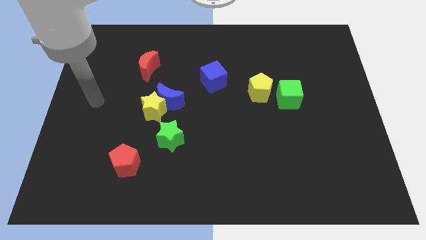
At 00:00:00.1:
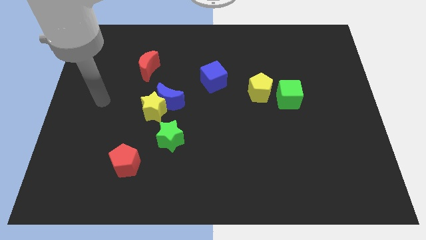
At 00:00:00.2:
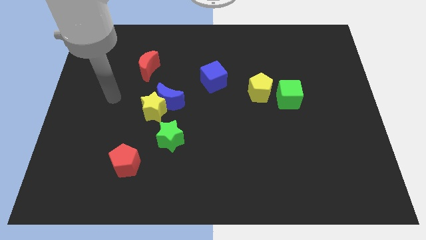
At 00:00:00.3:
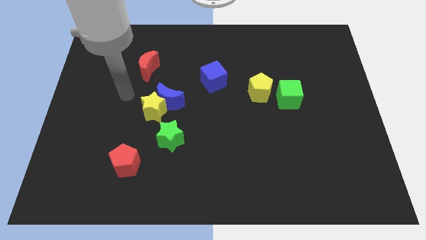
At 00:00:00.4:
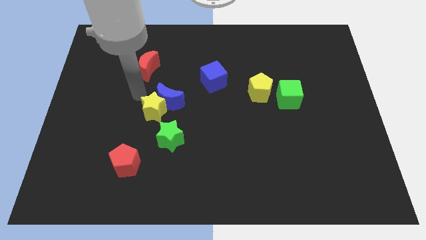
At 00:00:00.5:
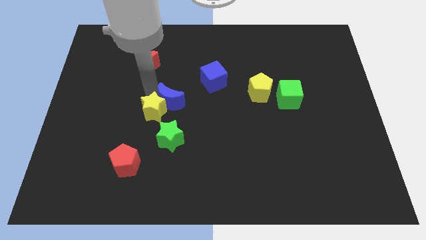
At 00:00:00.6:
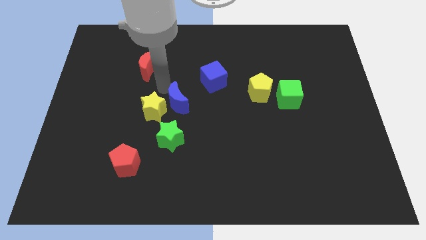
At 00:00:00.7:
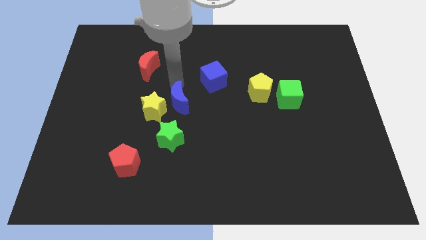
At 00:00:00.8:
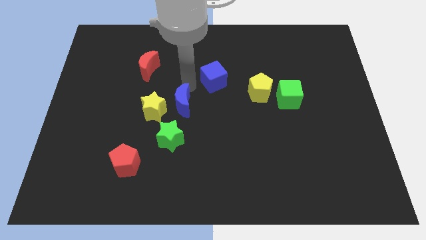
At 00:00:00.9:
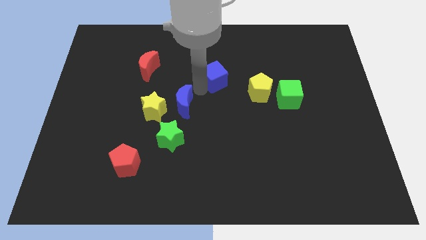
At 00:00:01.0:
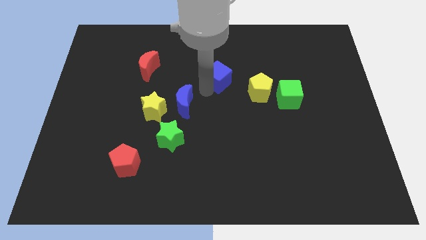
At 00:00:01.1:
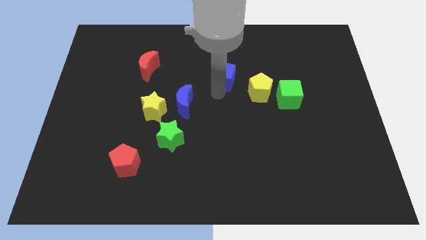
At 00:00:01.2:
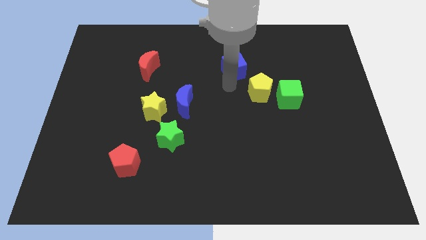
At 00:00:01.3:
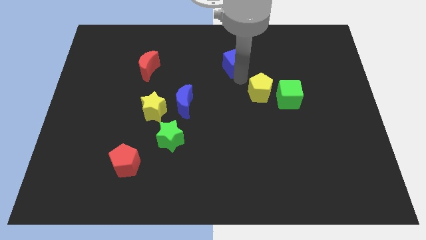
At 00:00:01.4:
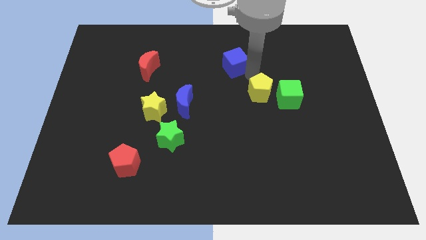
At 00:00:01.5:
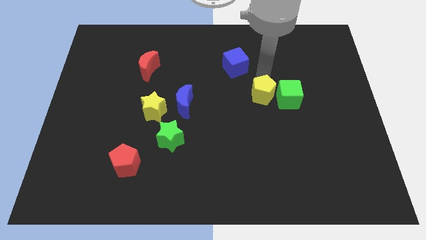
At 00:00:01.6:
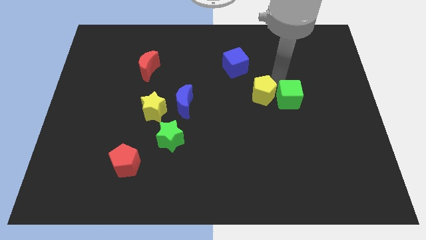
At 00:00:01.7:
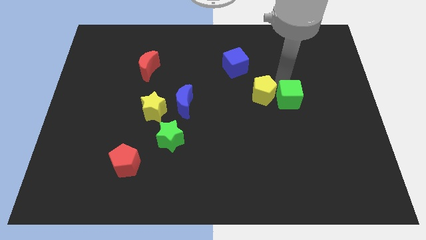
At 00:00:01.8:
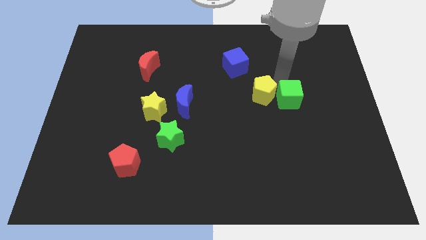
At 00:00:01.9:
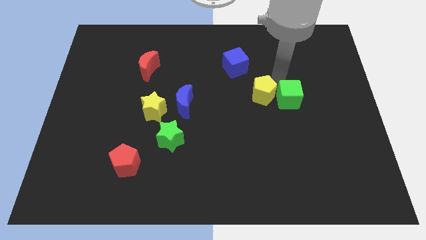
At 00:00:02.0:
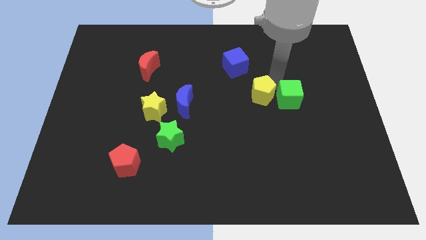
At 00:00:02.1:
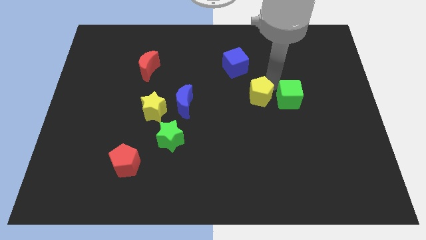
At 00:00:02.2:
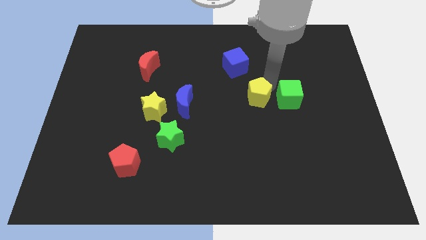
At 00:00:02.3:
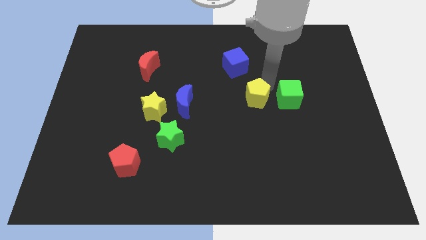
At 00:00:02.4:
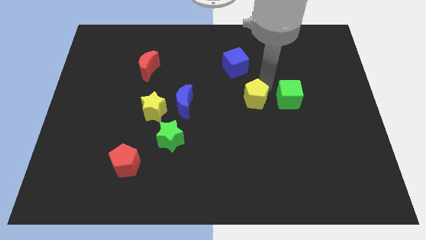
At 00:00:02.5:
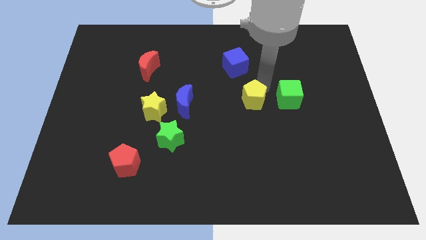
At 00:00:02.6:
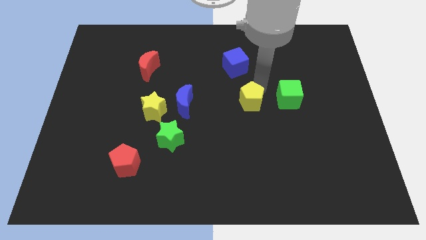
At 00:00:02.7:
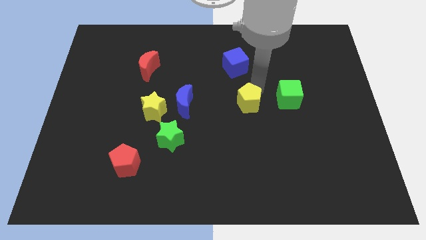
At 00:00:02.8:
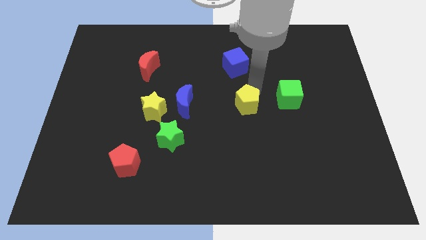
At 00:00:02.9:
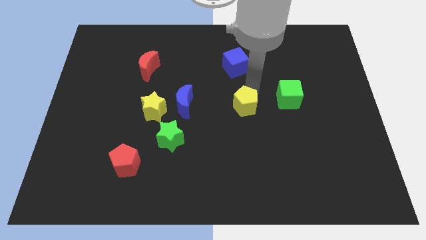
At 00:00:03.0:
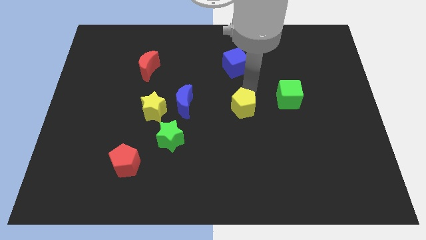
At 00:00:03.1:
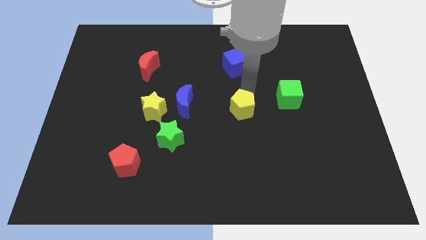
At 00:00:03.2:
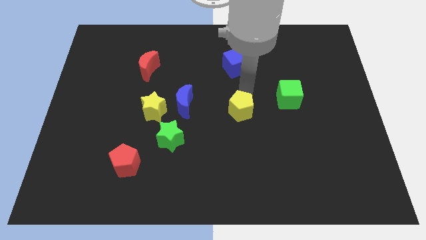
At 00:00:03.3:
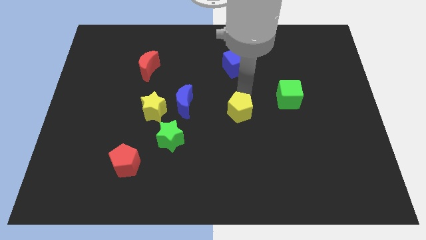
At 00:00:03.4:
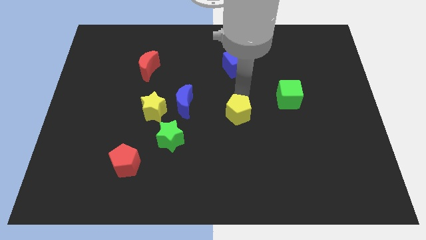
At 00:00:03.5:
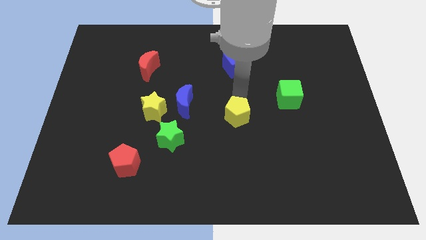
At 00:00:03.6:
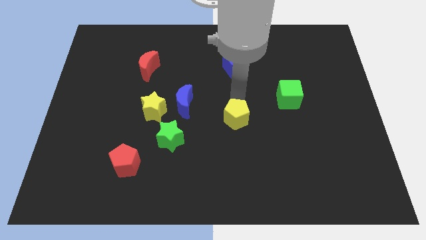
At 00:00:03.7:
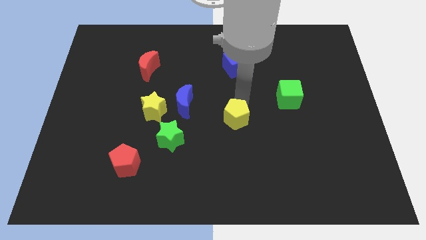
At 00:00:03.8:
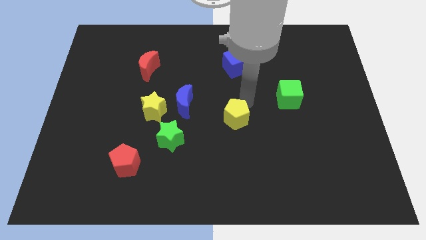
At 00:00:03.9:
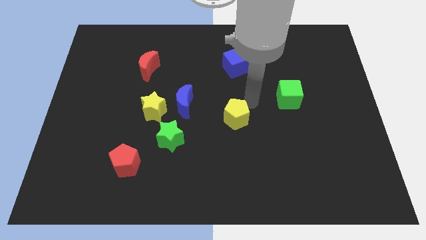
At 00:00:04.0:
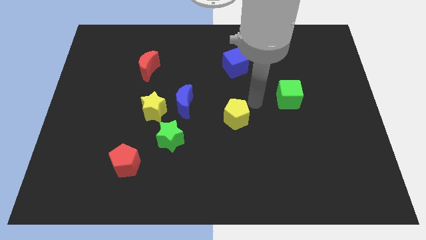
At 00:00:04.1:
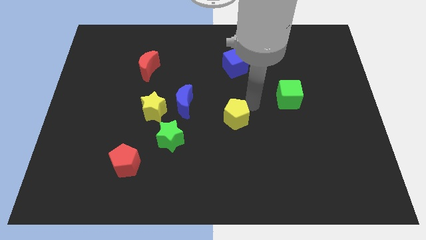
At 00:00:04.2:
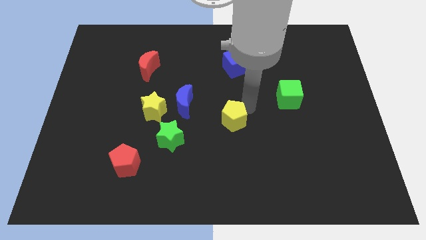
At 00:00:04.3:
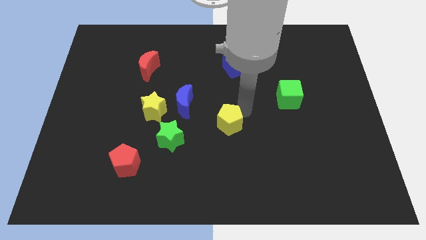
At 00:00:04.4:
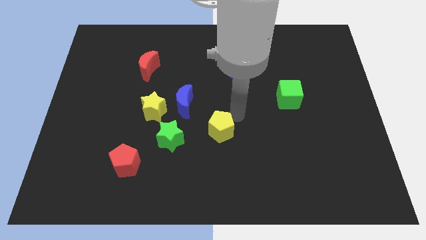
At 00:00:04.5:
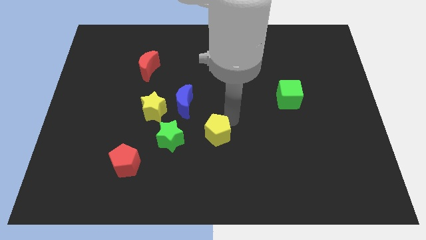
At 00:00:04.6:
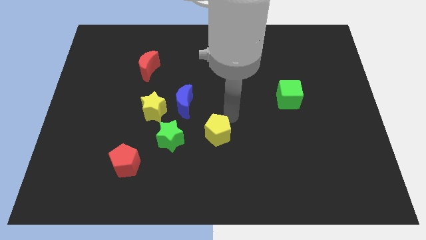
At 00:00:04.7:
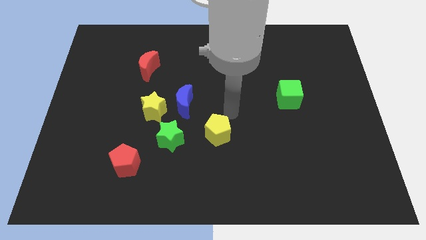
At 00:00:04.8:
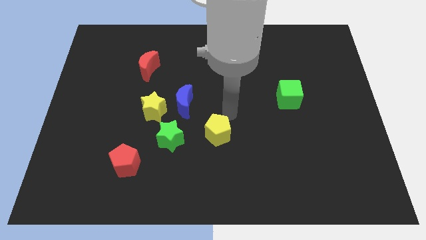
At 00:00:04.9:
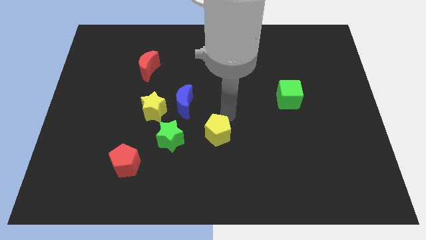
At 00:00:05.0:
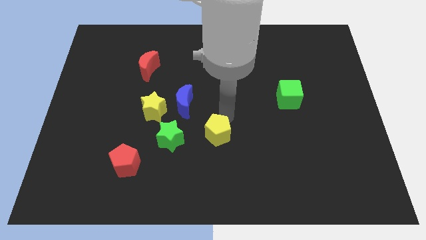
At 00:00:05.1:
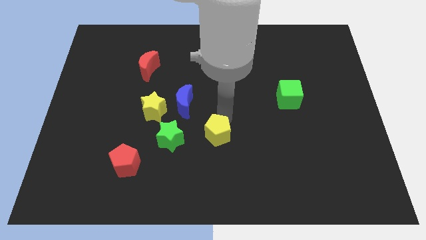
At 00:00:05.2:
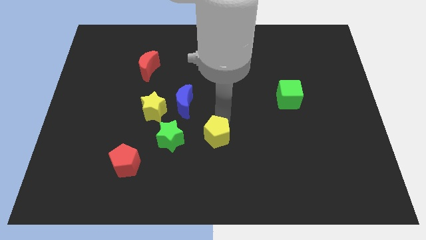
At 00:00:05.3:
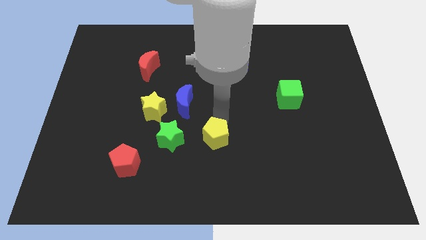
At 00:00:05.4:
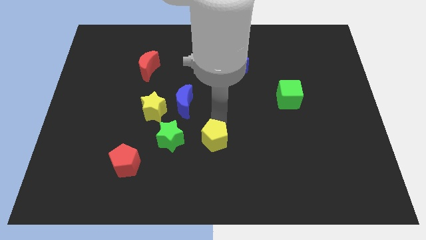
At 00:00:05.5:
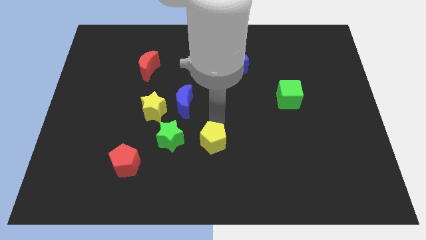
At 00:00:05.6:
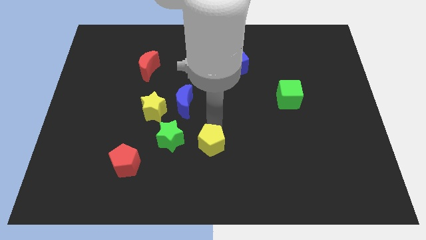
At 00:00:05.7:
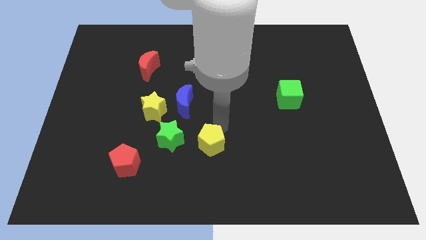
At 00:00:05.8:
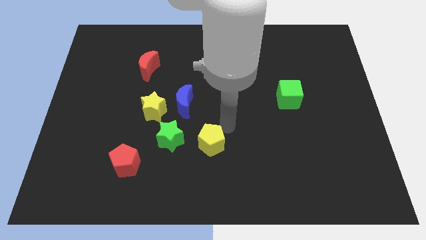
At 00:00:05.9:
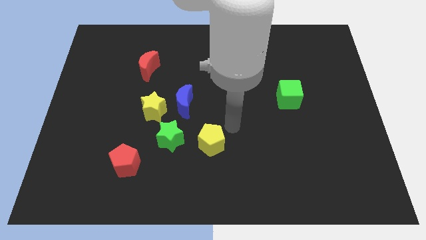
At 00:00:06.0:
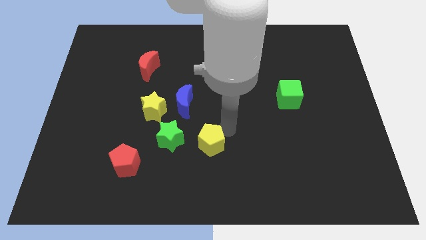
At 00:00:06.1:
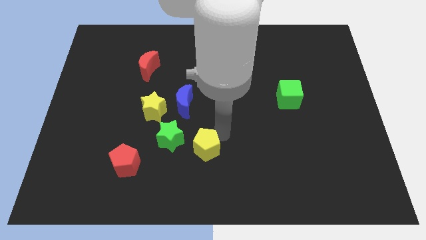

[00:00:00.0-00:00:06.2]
push the yellow pentagon diagonally down and to the left

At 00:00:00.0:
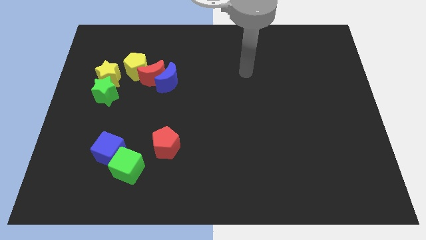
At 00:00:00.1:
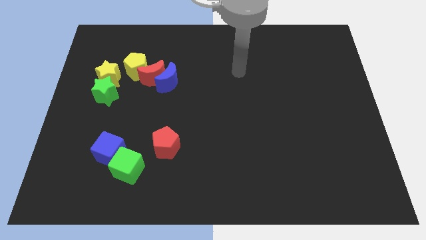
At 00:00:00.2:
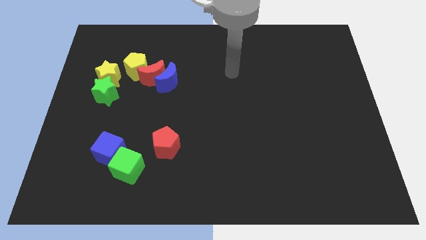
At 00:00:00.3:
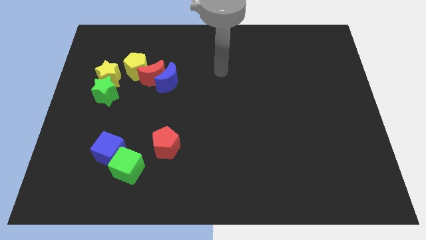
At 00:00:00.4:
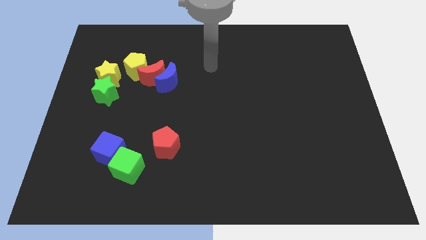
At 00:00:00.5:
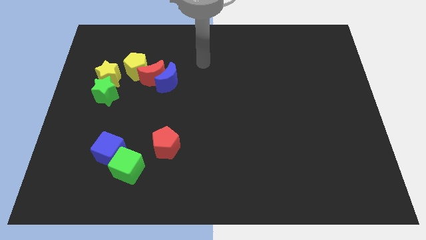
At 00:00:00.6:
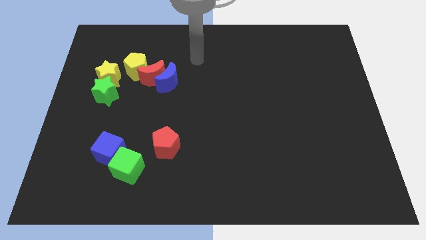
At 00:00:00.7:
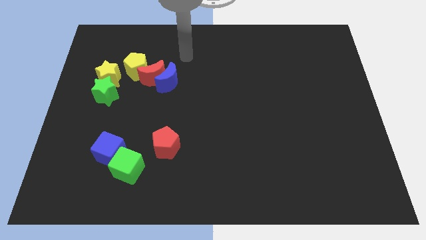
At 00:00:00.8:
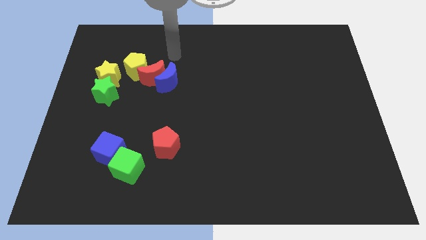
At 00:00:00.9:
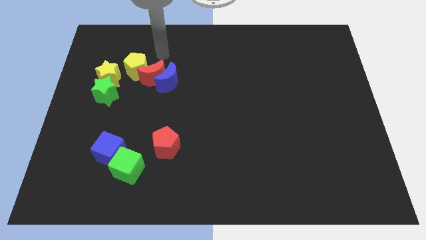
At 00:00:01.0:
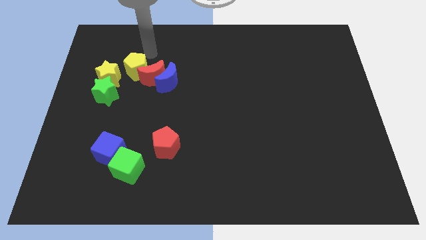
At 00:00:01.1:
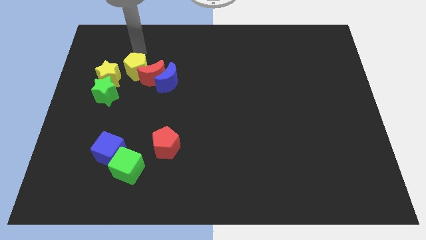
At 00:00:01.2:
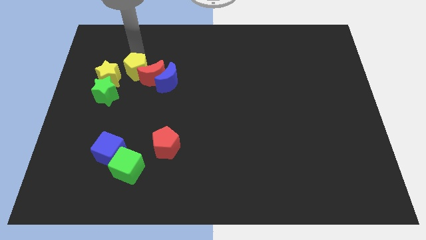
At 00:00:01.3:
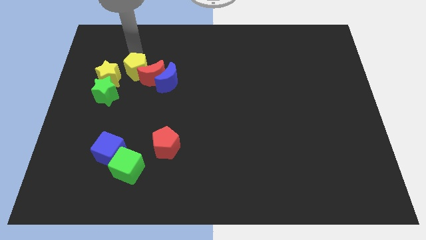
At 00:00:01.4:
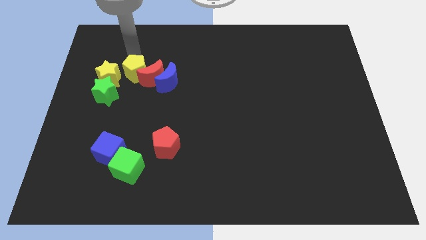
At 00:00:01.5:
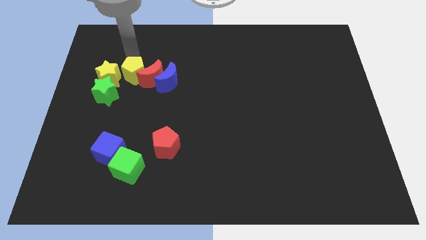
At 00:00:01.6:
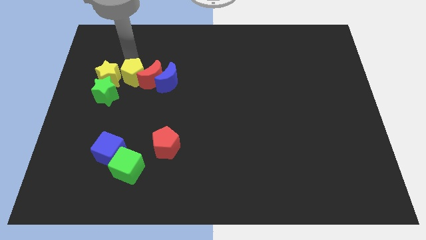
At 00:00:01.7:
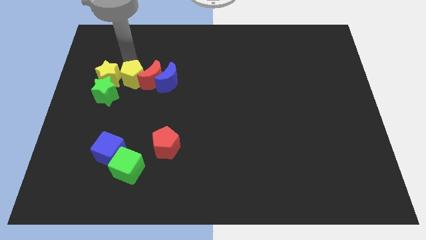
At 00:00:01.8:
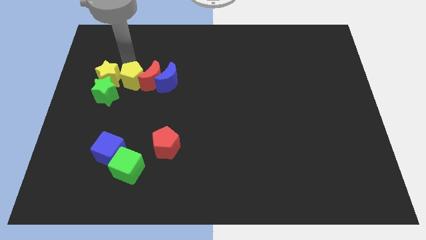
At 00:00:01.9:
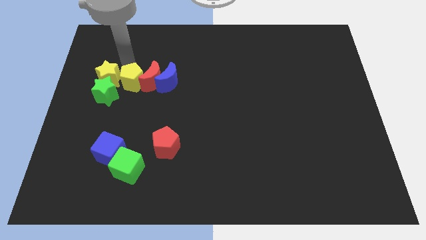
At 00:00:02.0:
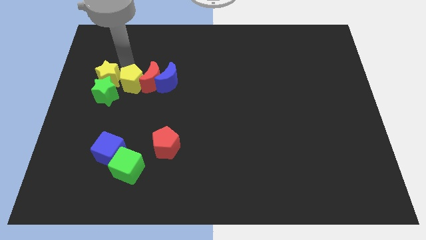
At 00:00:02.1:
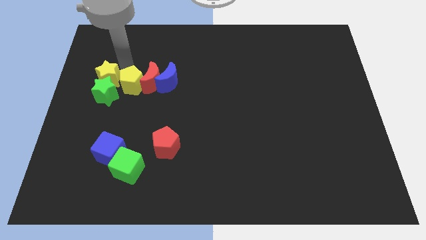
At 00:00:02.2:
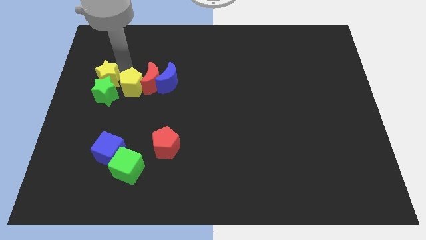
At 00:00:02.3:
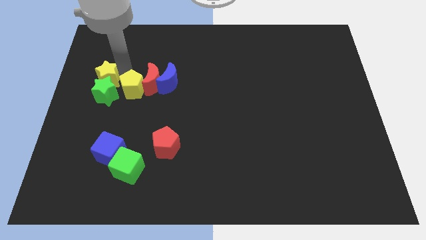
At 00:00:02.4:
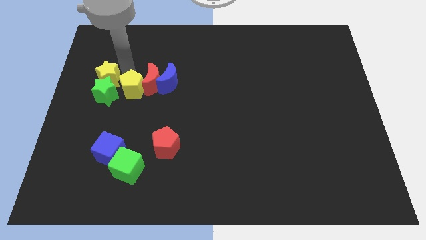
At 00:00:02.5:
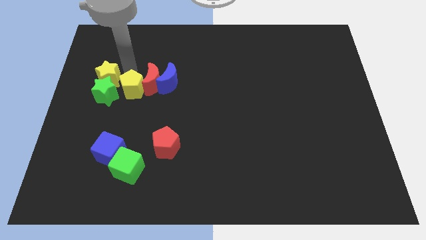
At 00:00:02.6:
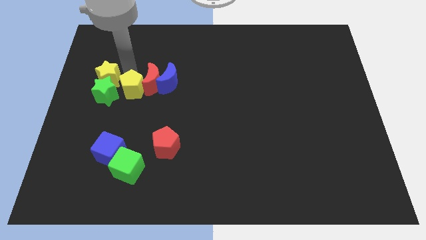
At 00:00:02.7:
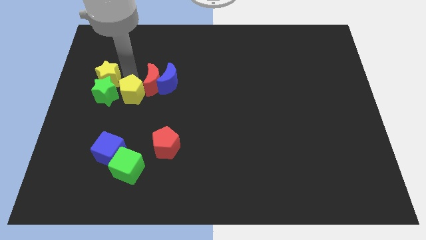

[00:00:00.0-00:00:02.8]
move the yellow pentagon a little bit downwards
